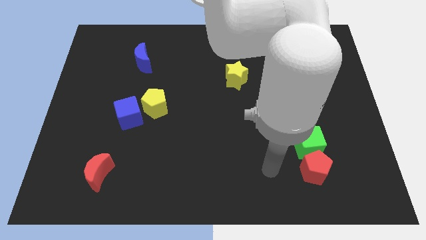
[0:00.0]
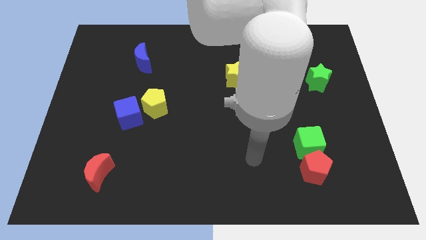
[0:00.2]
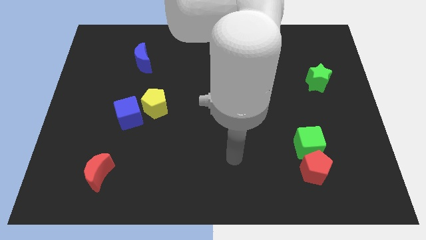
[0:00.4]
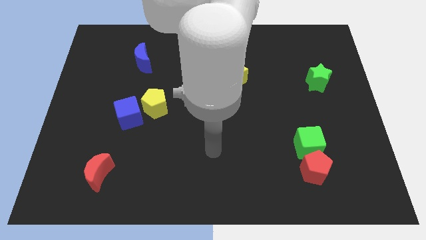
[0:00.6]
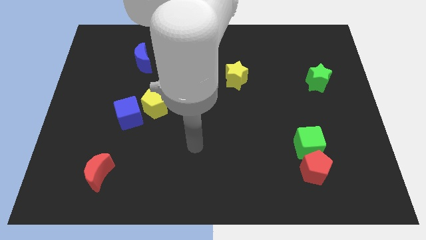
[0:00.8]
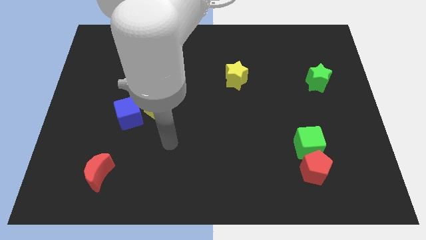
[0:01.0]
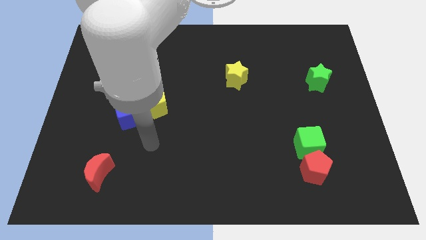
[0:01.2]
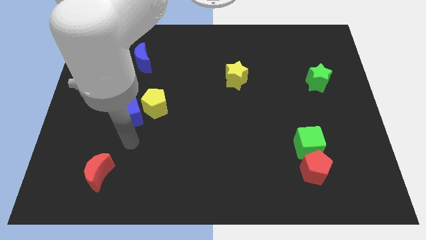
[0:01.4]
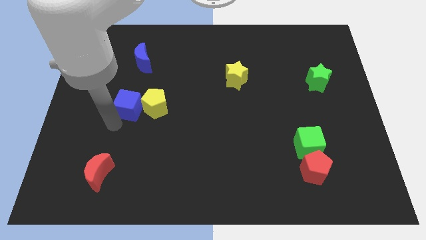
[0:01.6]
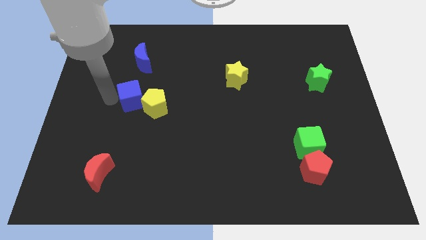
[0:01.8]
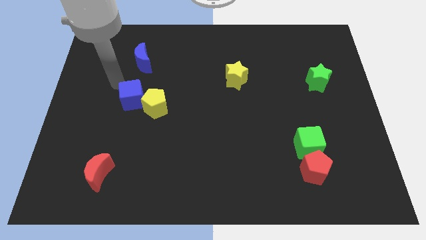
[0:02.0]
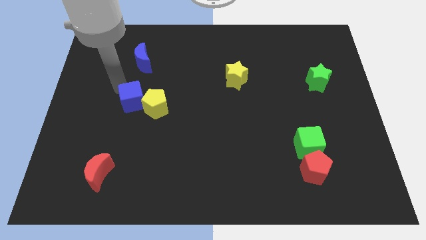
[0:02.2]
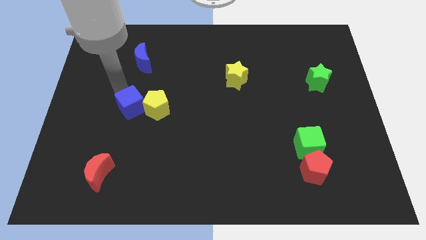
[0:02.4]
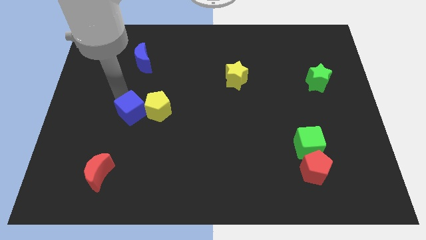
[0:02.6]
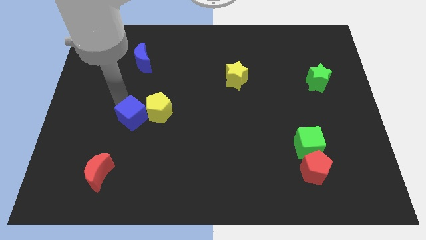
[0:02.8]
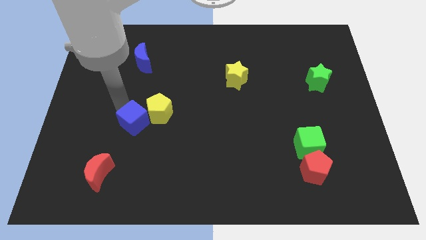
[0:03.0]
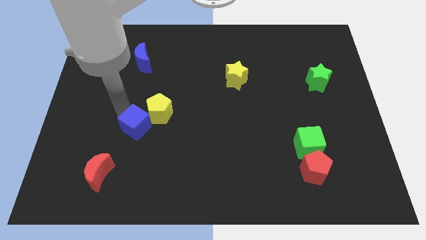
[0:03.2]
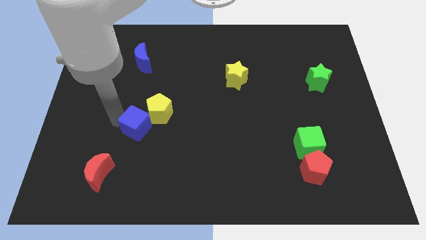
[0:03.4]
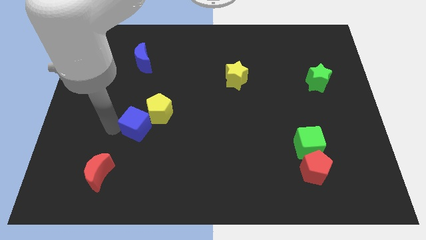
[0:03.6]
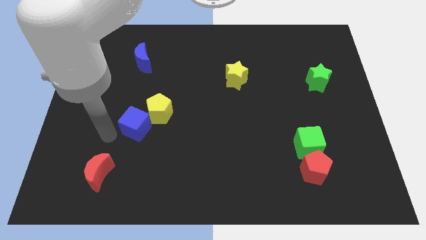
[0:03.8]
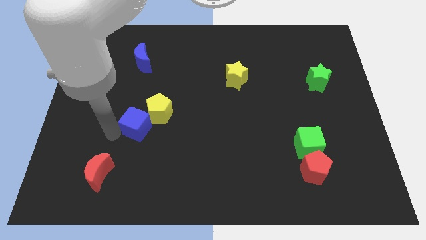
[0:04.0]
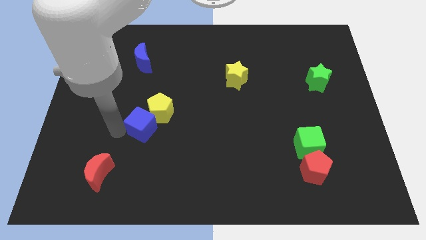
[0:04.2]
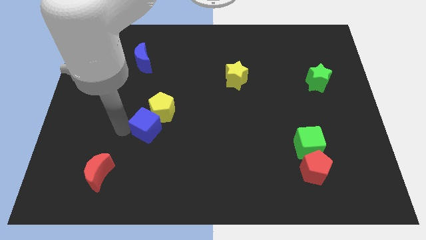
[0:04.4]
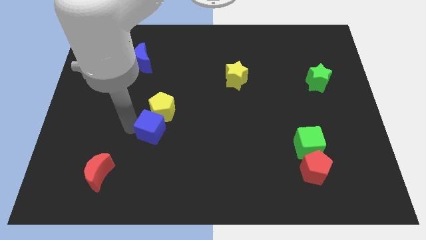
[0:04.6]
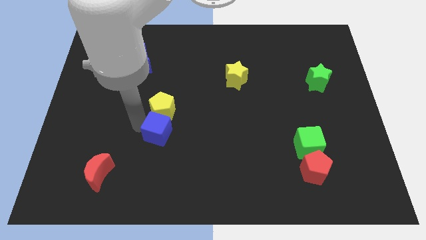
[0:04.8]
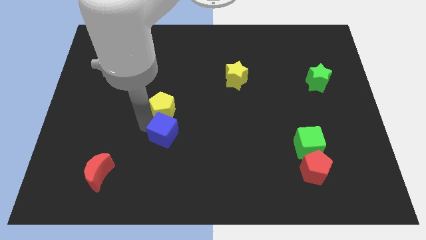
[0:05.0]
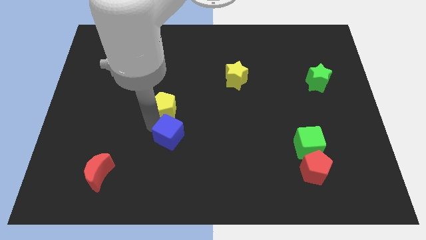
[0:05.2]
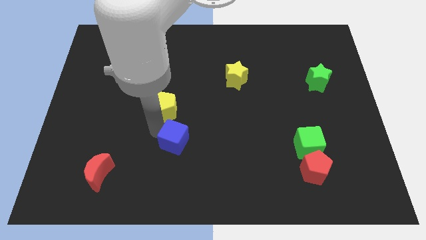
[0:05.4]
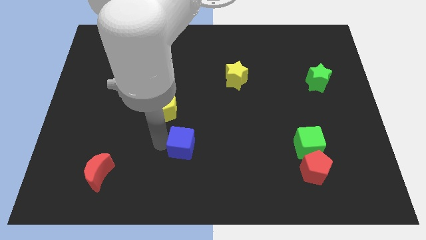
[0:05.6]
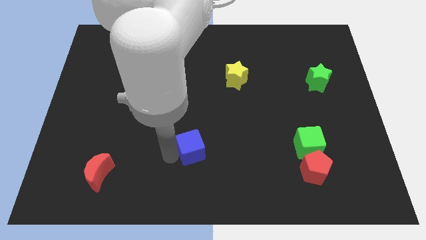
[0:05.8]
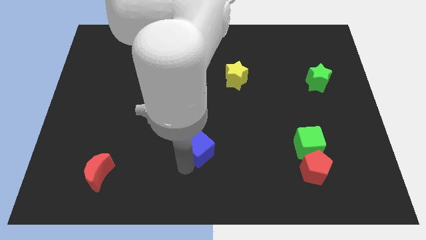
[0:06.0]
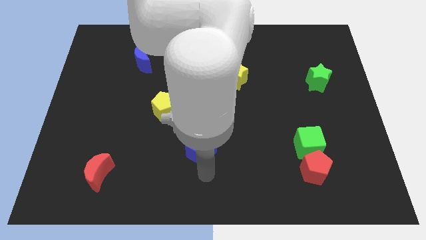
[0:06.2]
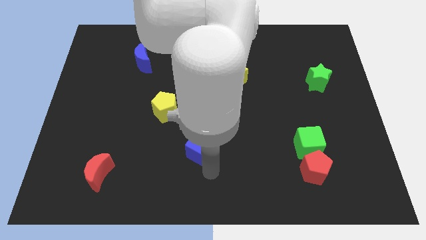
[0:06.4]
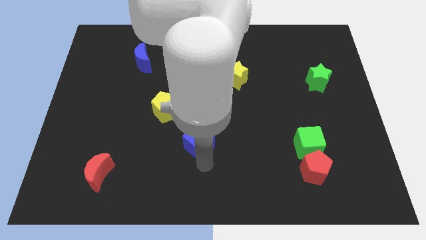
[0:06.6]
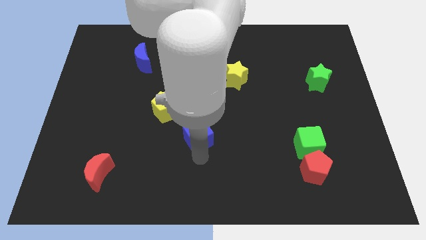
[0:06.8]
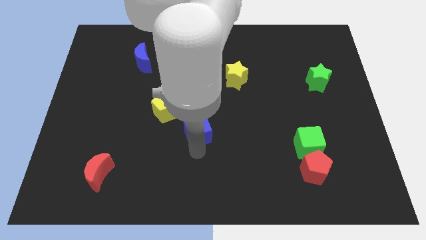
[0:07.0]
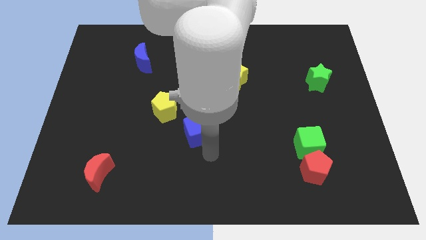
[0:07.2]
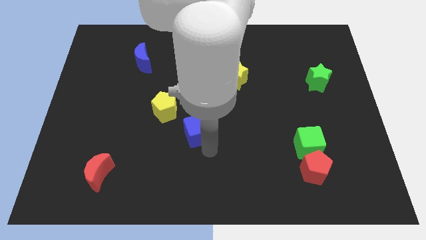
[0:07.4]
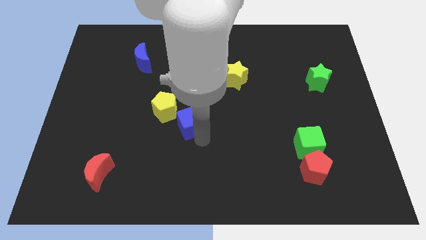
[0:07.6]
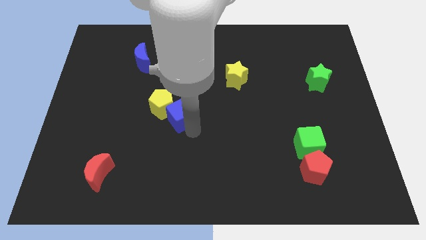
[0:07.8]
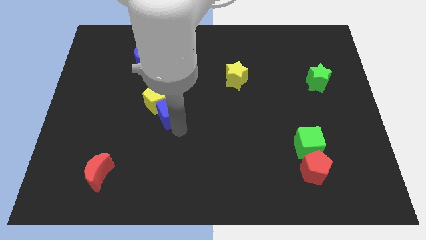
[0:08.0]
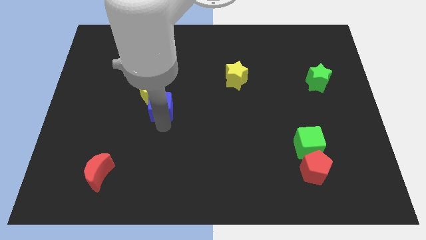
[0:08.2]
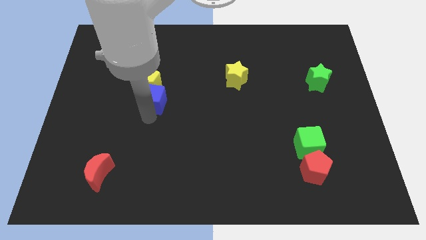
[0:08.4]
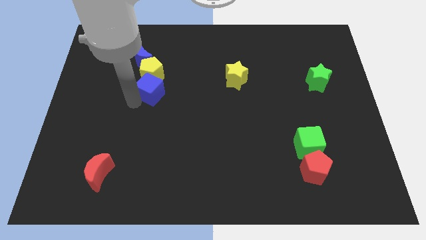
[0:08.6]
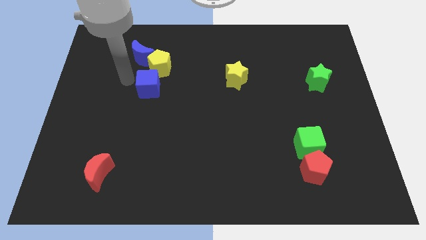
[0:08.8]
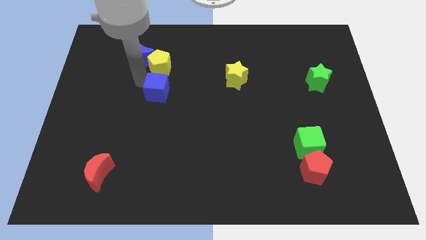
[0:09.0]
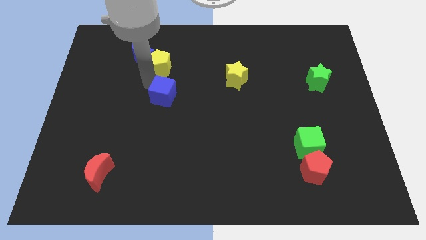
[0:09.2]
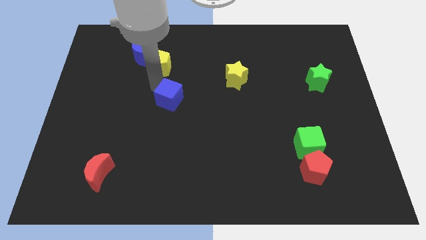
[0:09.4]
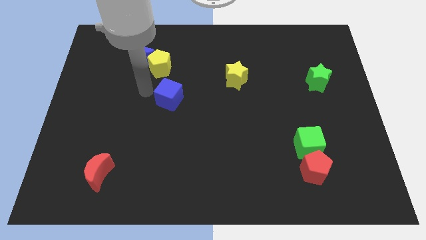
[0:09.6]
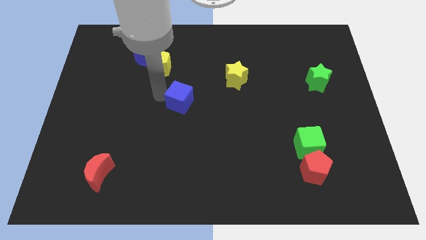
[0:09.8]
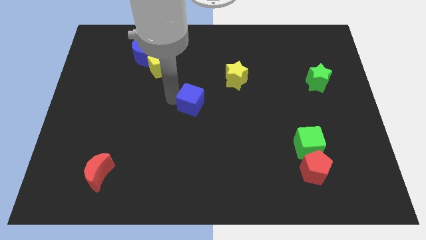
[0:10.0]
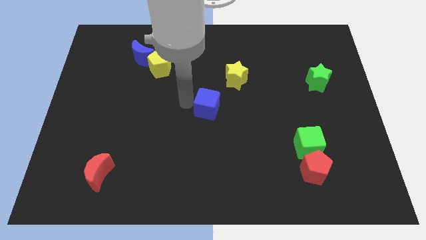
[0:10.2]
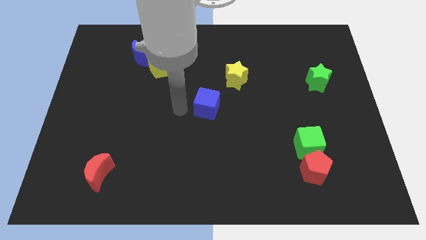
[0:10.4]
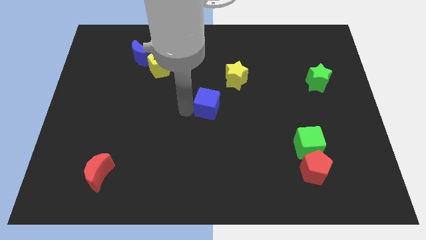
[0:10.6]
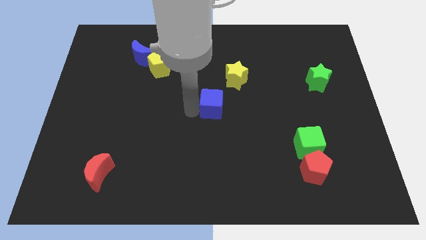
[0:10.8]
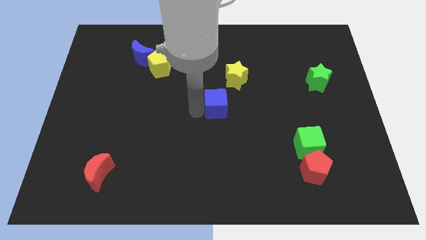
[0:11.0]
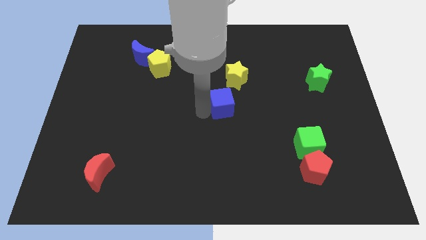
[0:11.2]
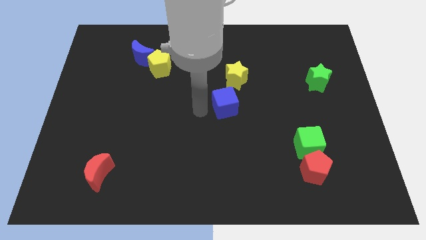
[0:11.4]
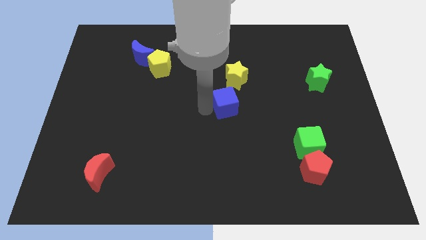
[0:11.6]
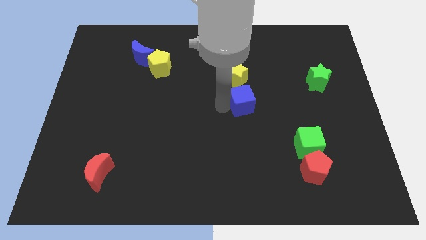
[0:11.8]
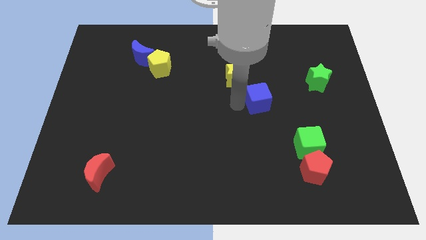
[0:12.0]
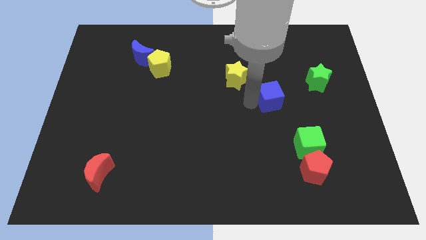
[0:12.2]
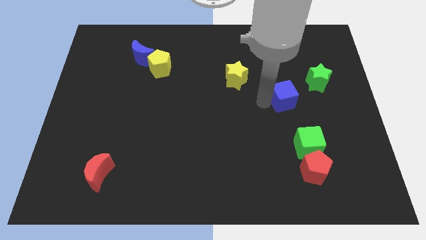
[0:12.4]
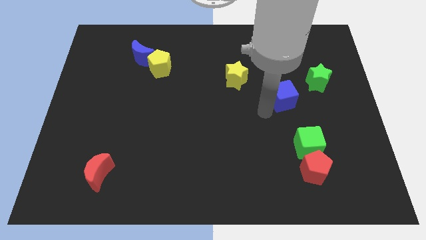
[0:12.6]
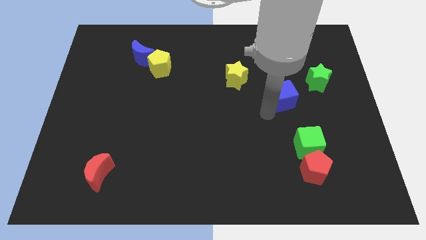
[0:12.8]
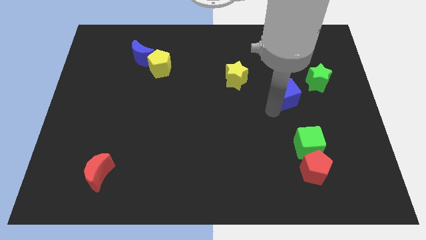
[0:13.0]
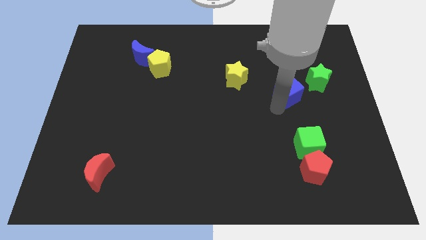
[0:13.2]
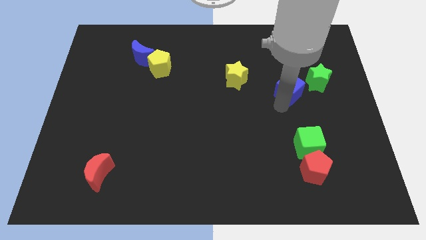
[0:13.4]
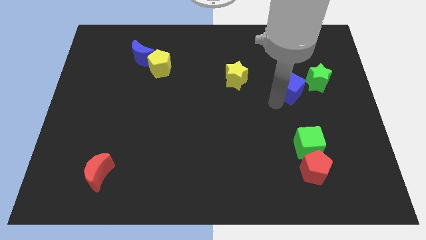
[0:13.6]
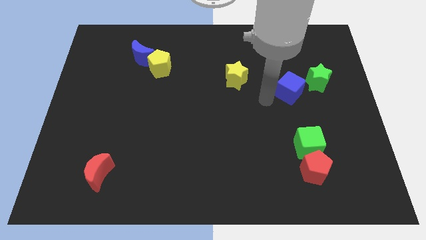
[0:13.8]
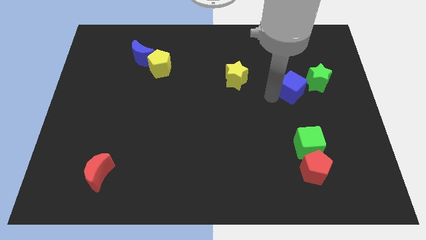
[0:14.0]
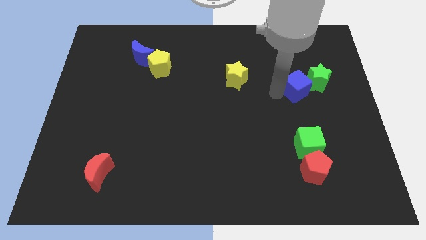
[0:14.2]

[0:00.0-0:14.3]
move the blue cube close to the green star

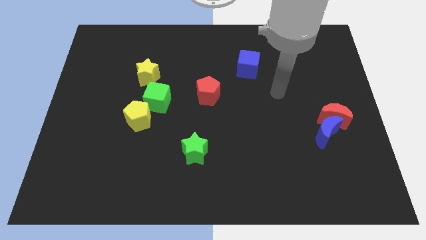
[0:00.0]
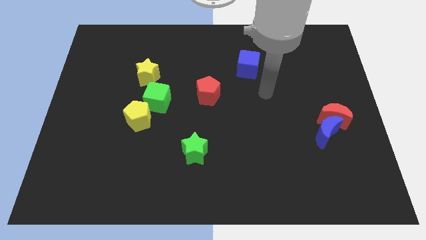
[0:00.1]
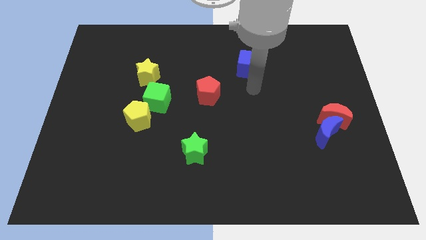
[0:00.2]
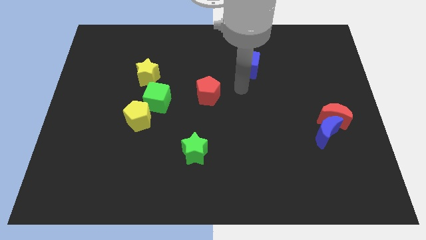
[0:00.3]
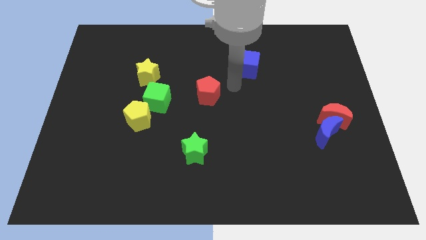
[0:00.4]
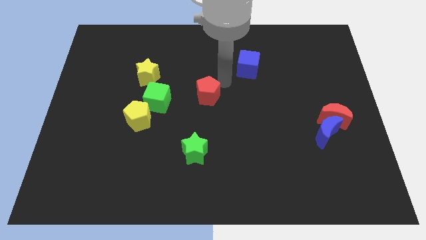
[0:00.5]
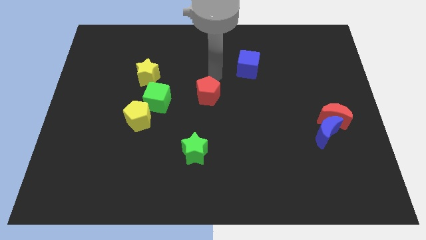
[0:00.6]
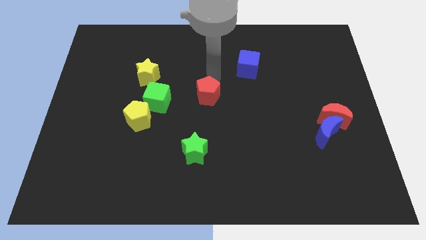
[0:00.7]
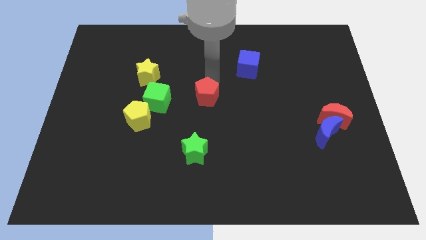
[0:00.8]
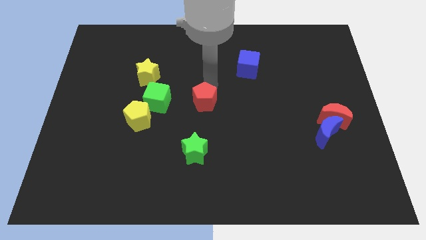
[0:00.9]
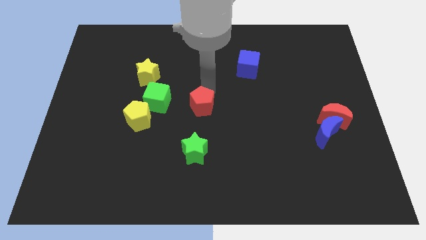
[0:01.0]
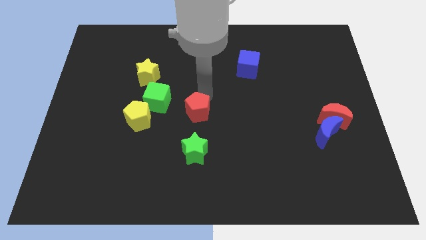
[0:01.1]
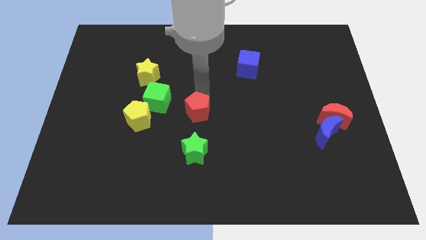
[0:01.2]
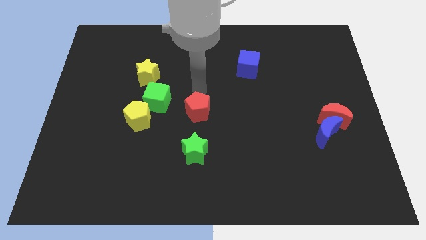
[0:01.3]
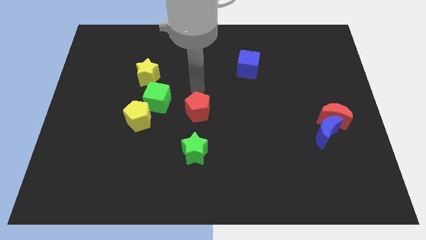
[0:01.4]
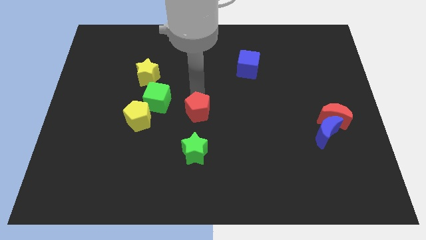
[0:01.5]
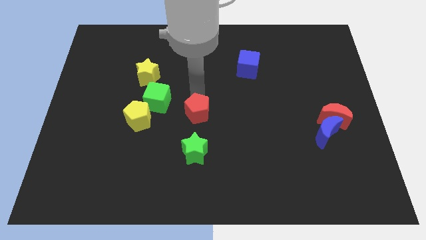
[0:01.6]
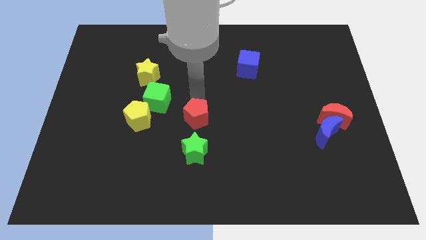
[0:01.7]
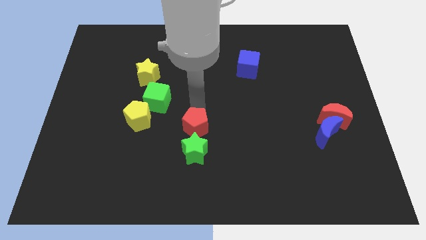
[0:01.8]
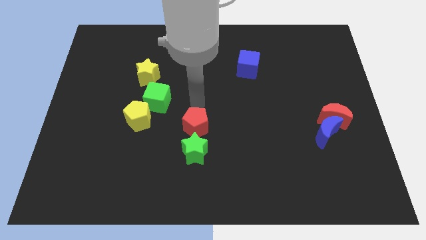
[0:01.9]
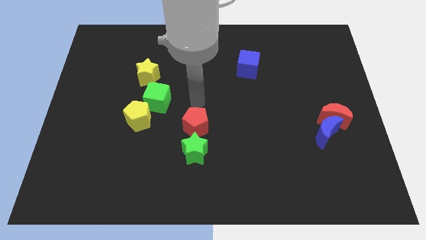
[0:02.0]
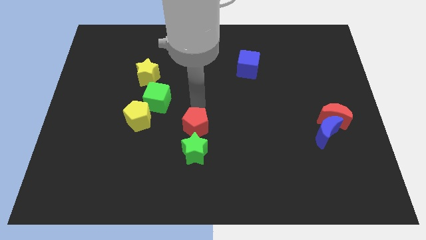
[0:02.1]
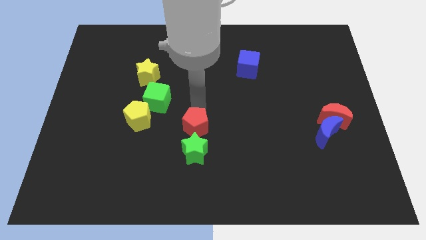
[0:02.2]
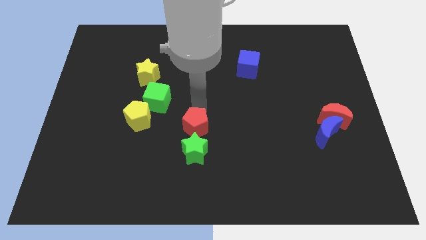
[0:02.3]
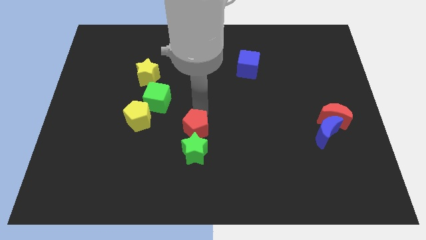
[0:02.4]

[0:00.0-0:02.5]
put the red pentagon towards the green star
